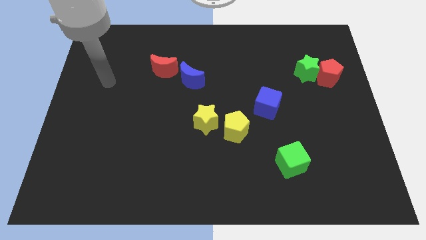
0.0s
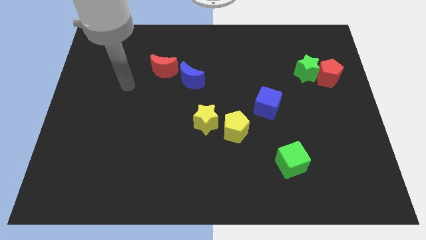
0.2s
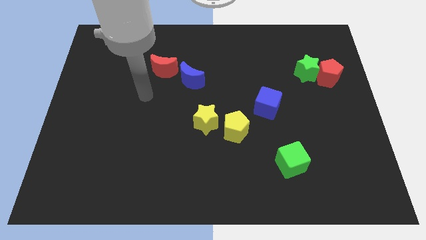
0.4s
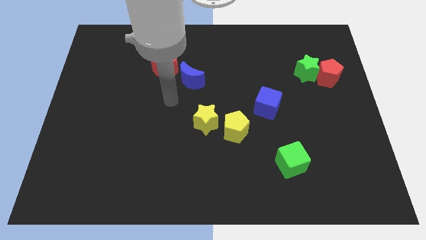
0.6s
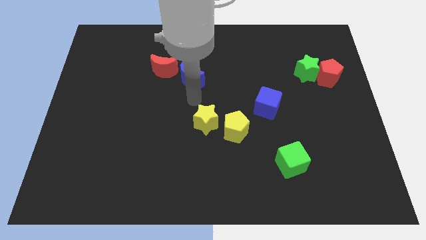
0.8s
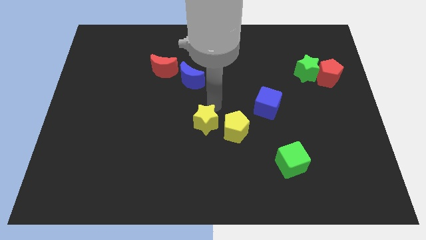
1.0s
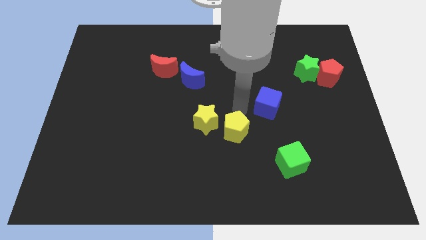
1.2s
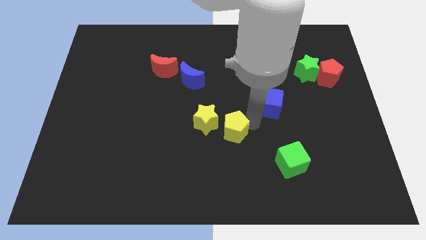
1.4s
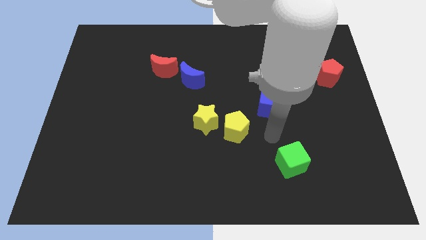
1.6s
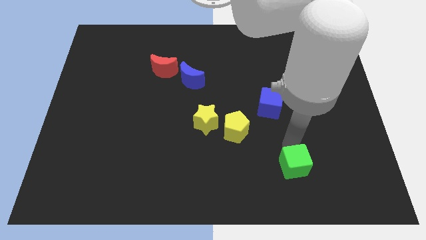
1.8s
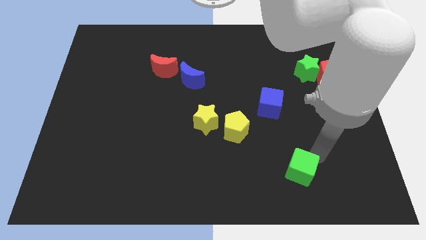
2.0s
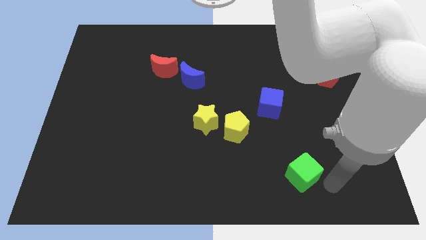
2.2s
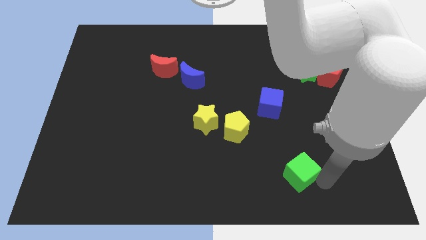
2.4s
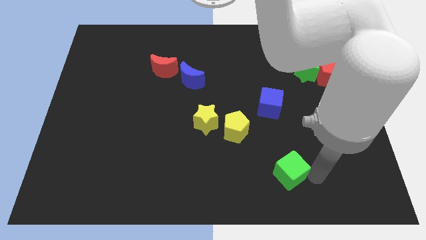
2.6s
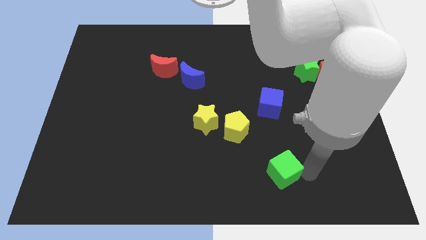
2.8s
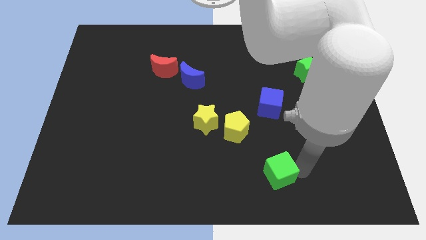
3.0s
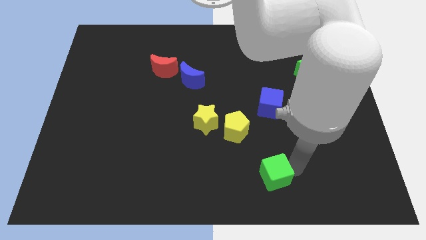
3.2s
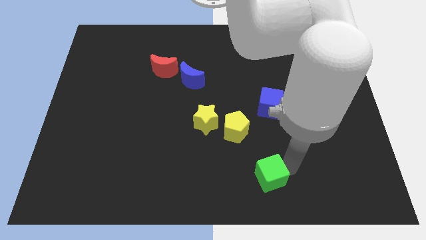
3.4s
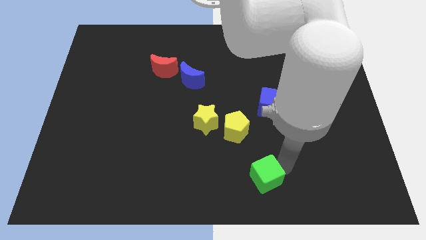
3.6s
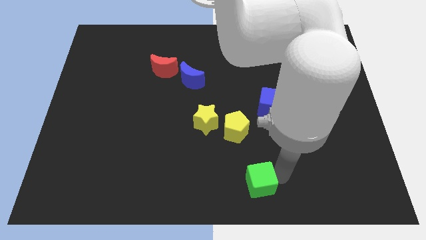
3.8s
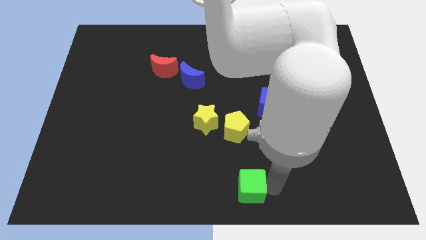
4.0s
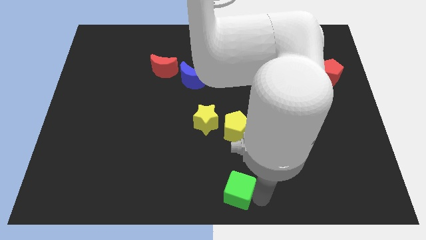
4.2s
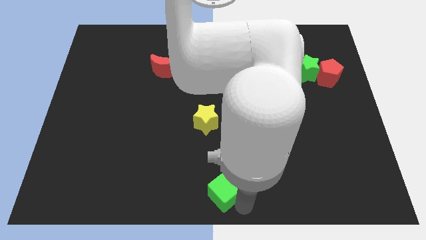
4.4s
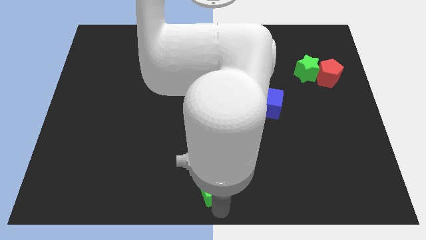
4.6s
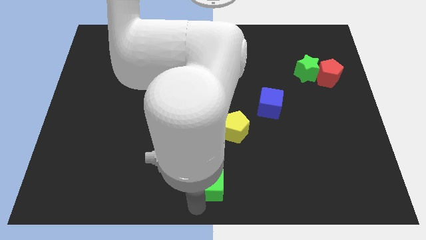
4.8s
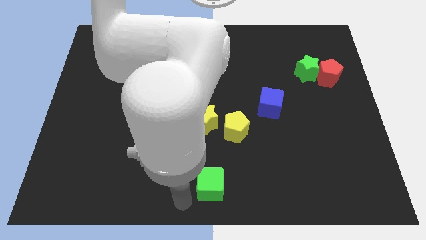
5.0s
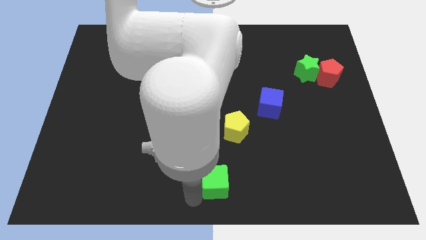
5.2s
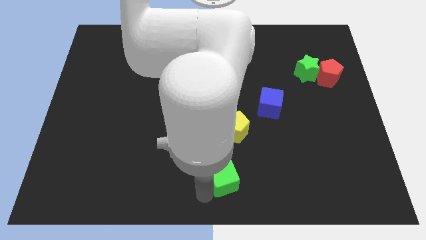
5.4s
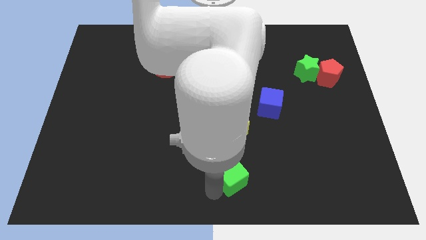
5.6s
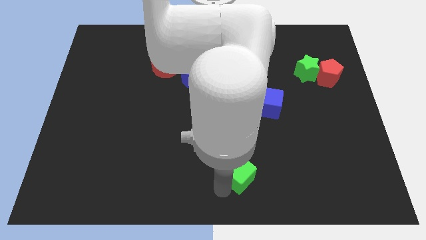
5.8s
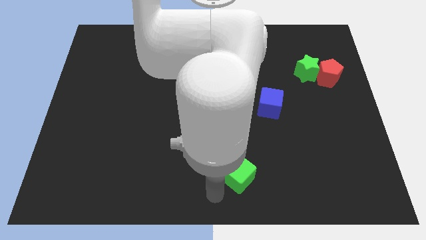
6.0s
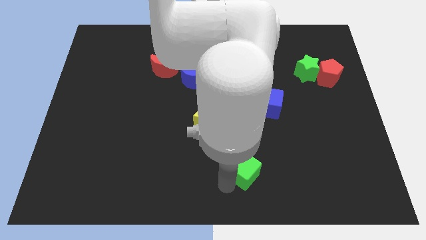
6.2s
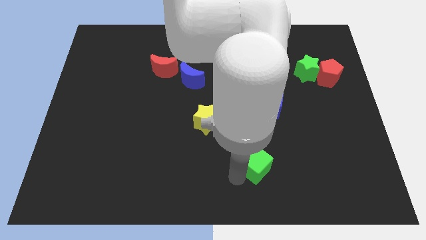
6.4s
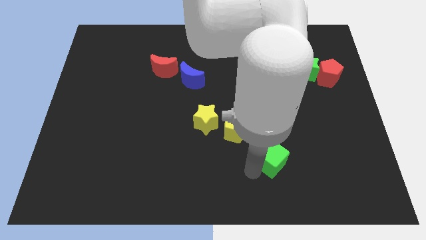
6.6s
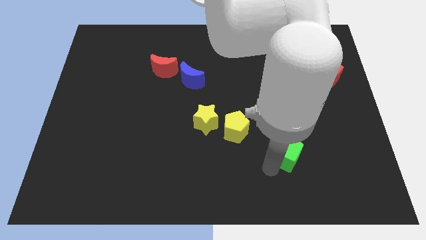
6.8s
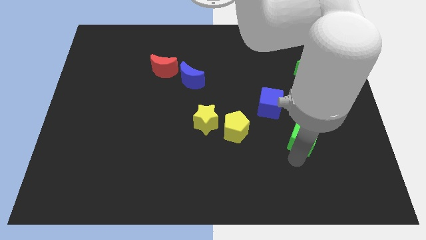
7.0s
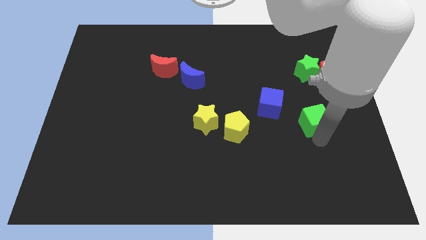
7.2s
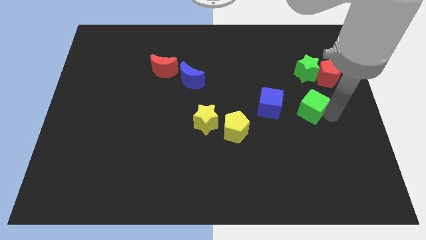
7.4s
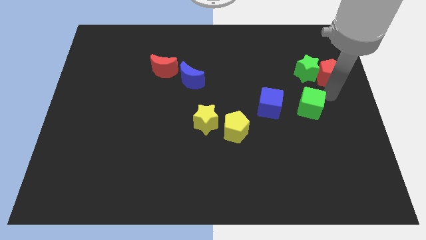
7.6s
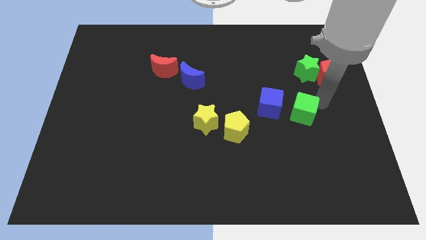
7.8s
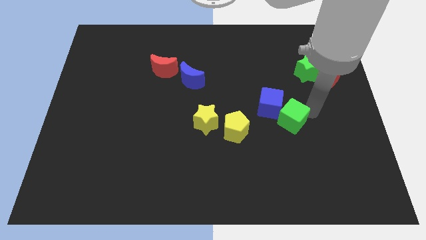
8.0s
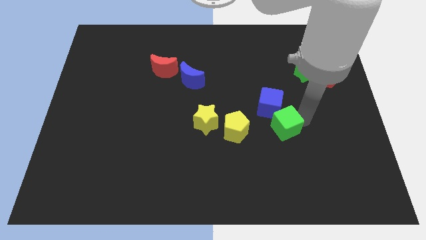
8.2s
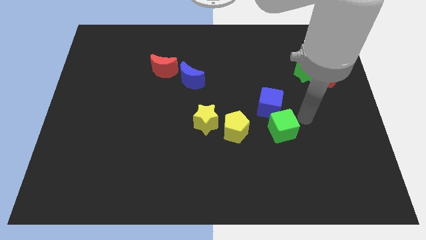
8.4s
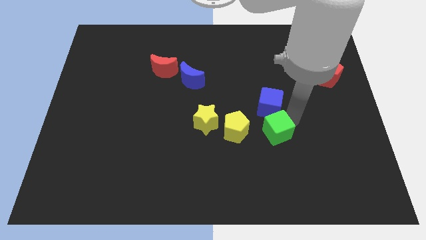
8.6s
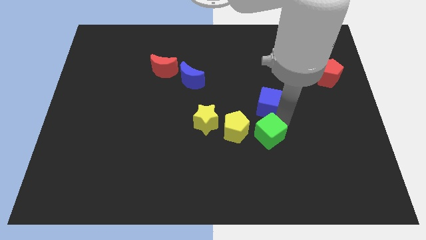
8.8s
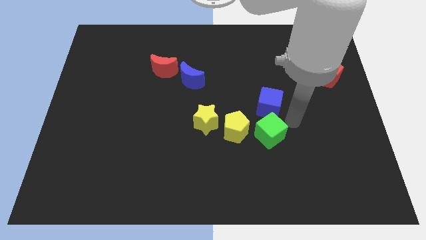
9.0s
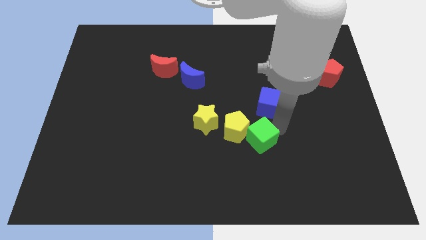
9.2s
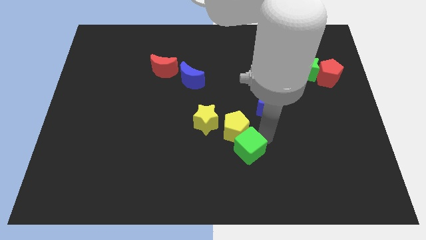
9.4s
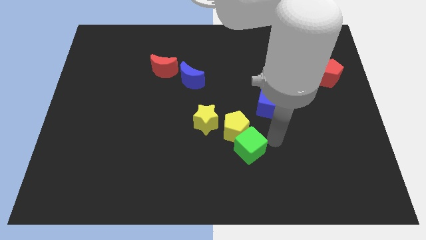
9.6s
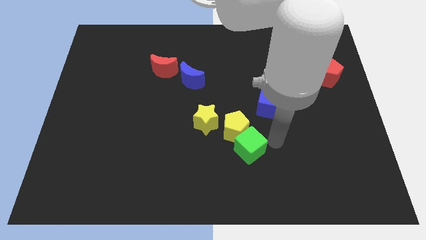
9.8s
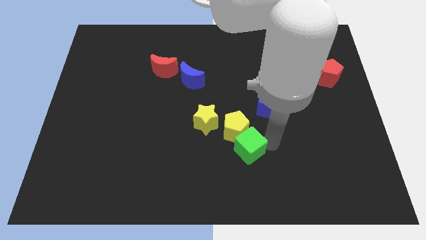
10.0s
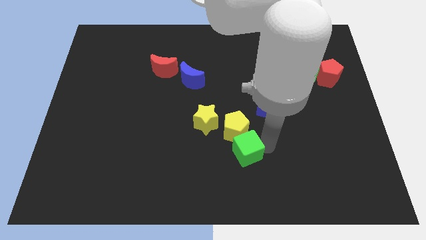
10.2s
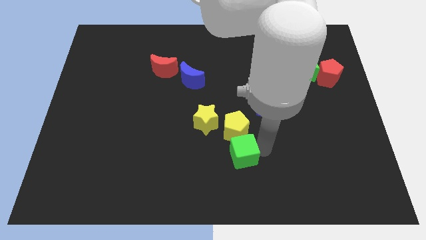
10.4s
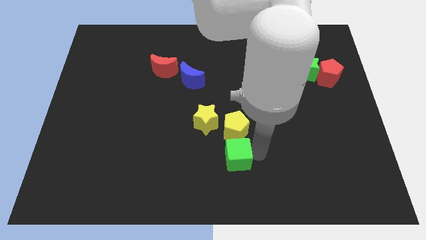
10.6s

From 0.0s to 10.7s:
push the green cube diagonally down and to the left of the yellow pentagon

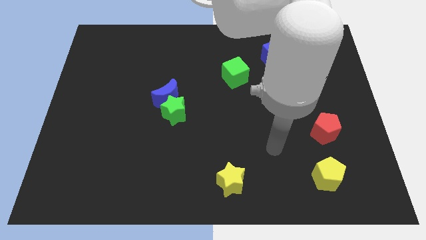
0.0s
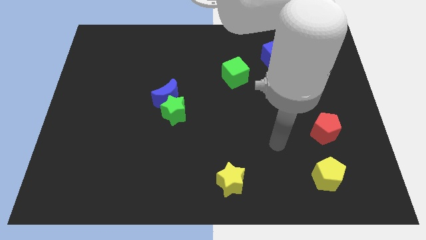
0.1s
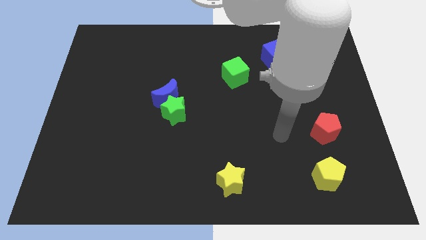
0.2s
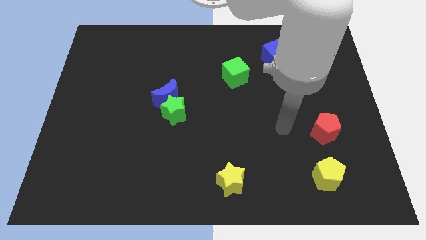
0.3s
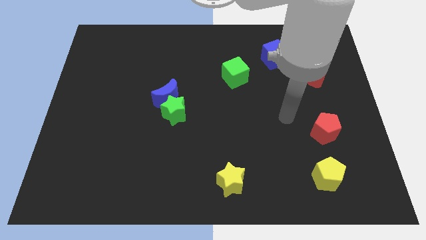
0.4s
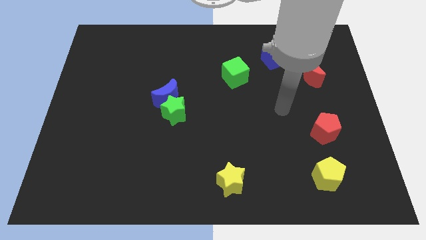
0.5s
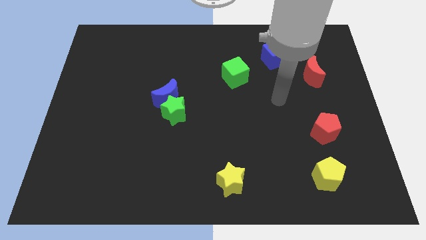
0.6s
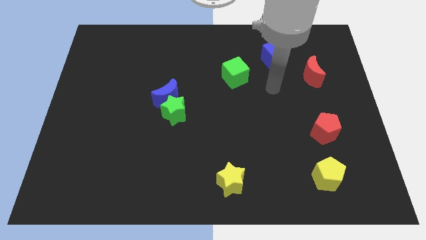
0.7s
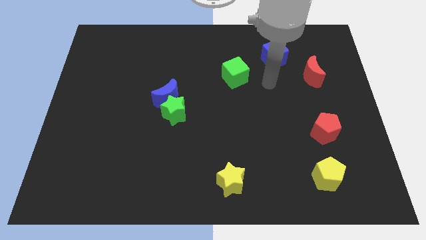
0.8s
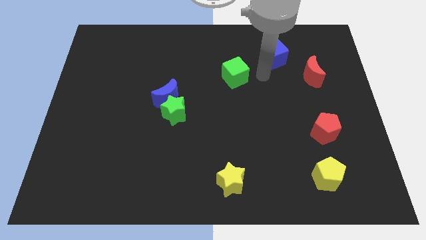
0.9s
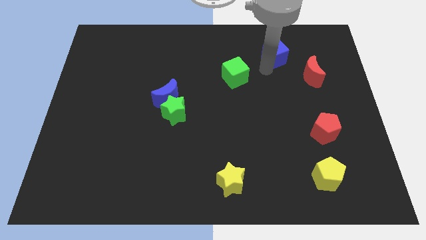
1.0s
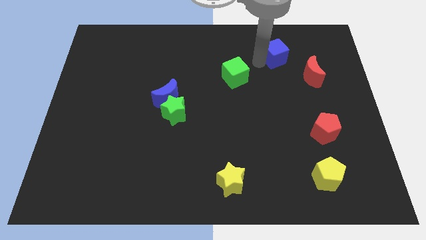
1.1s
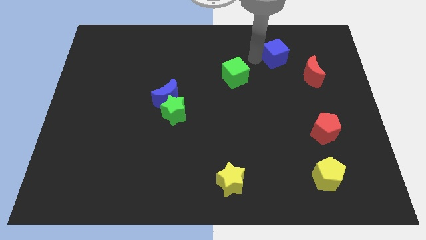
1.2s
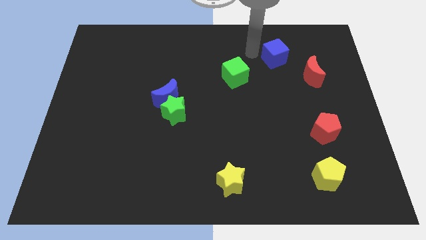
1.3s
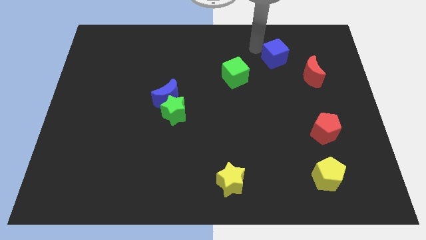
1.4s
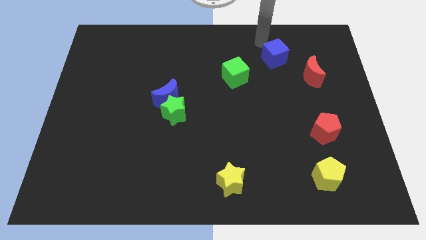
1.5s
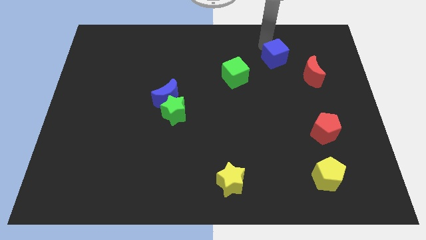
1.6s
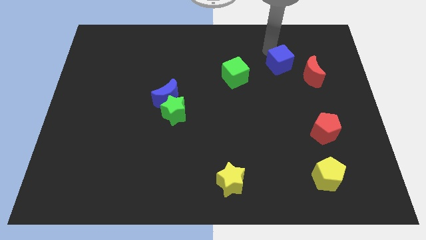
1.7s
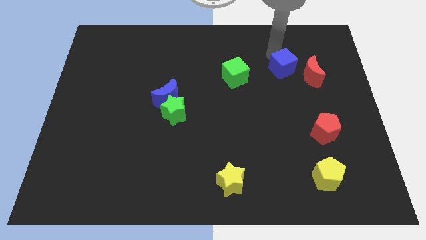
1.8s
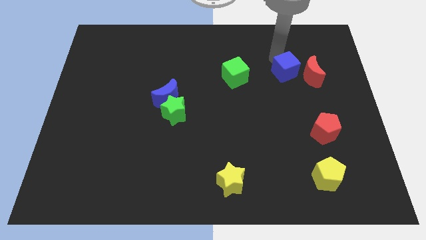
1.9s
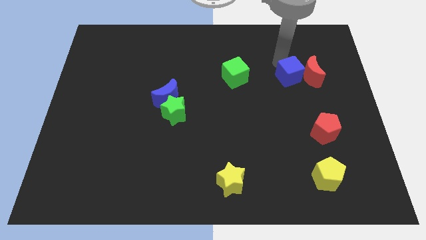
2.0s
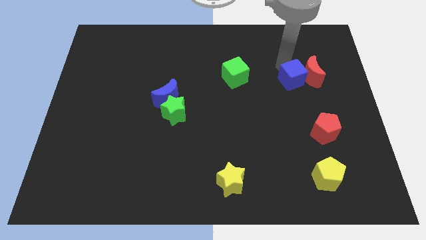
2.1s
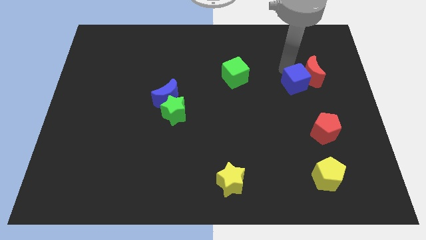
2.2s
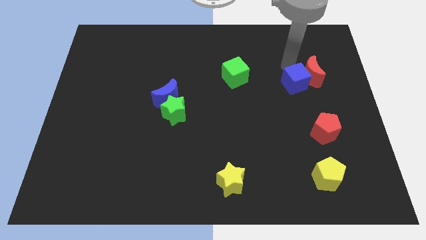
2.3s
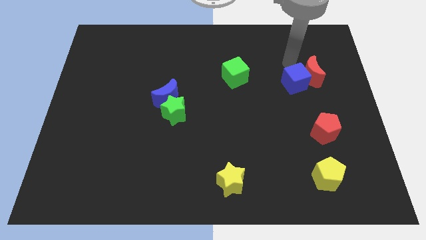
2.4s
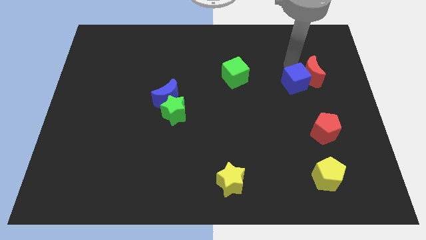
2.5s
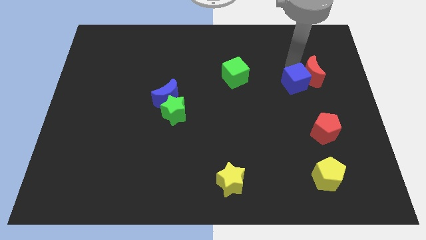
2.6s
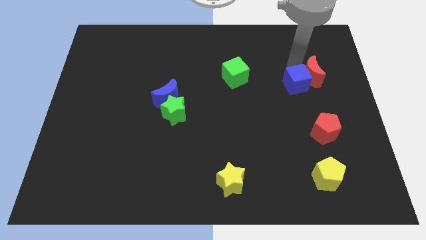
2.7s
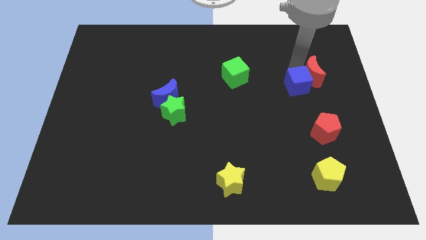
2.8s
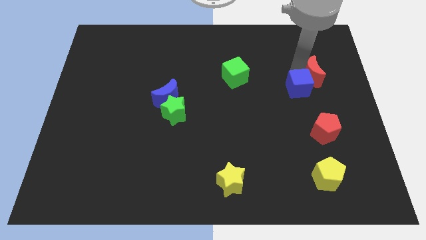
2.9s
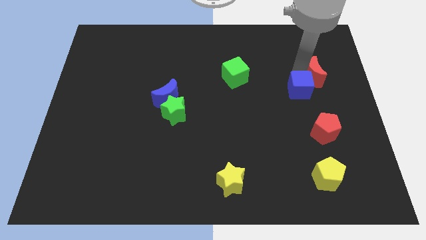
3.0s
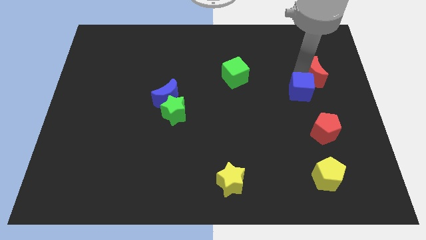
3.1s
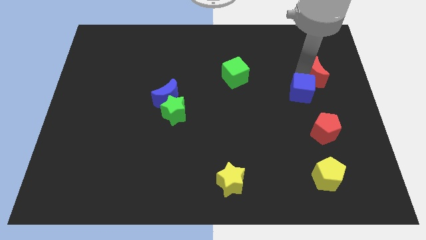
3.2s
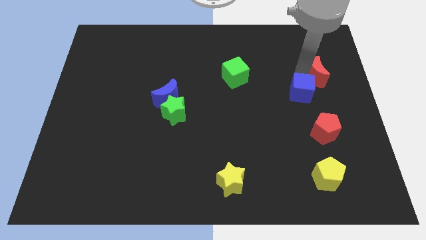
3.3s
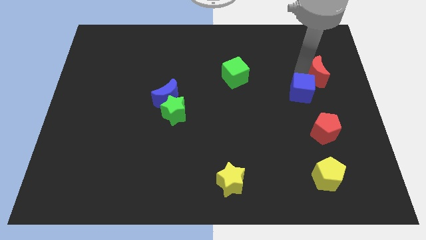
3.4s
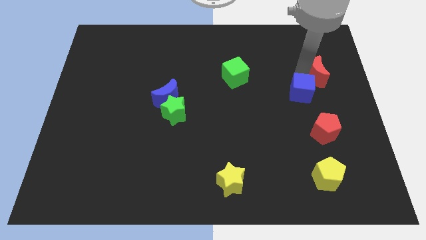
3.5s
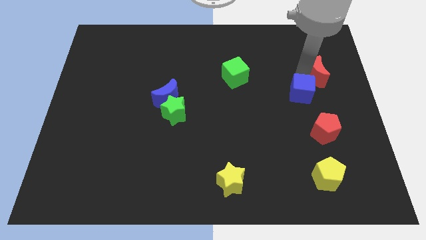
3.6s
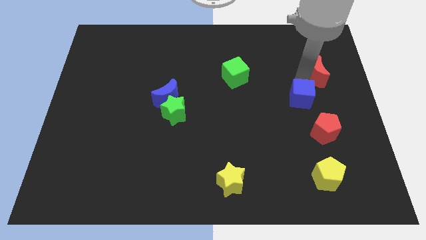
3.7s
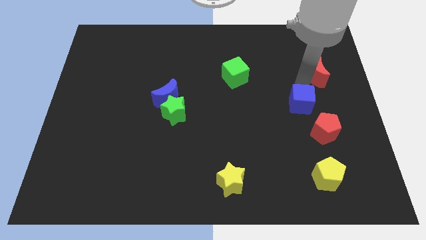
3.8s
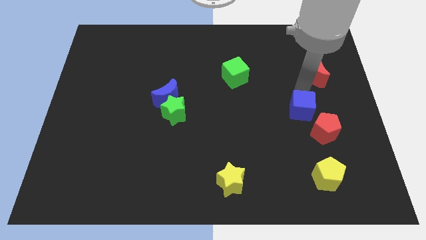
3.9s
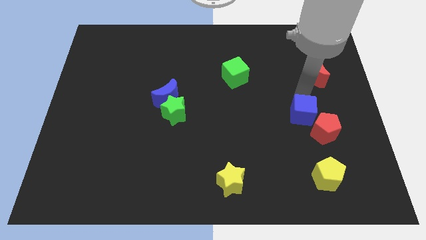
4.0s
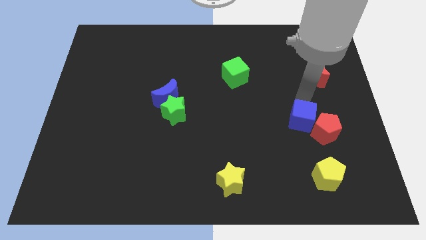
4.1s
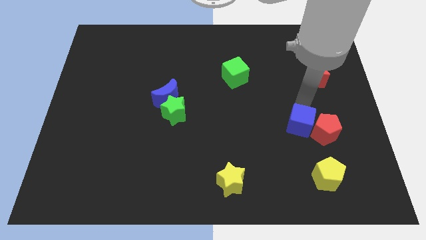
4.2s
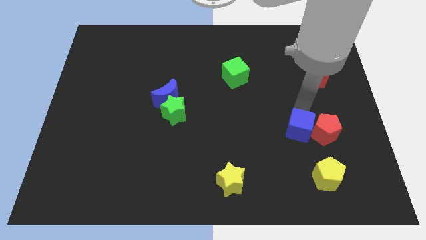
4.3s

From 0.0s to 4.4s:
put the blue cube to the bottom left side of the red pentagon
